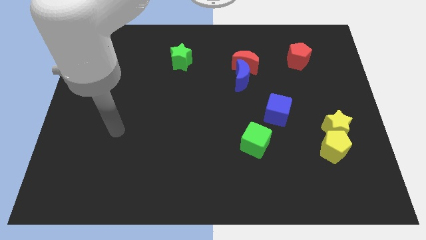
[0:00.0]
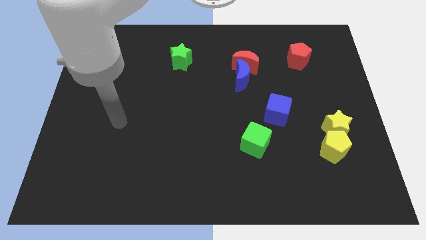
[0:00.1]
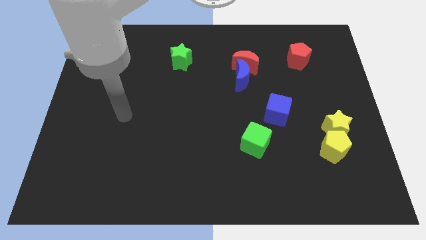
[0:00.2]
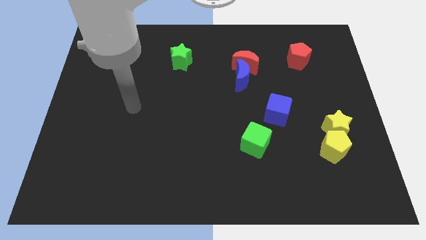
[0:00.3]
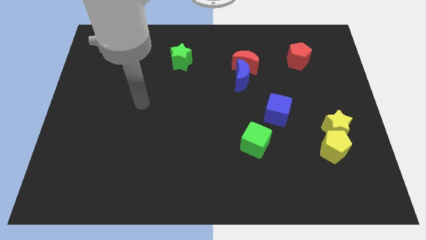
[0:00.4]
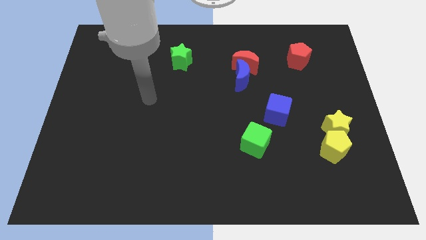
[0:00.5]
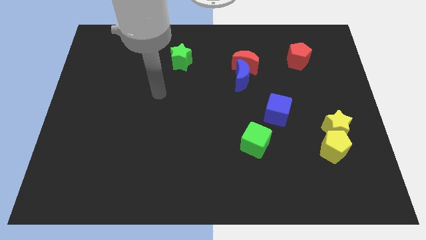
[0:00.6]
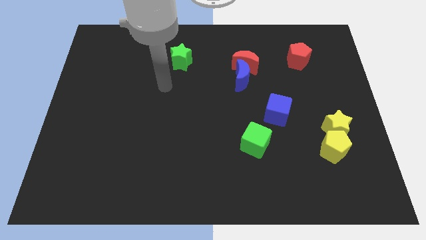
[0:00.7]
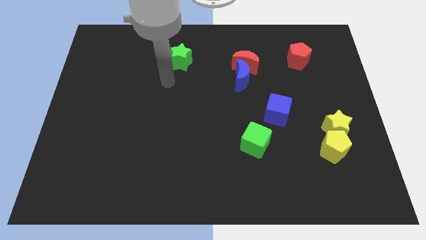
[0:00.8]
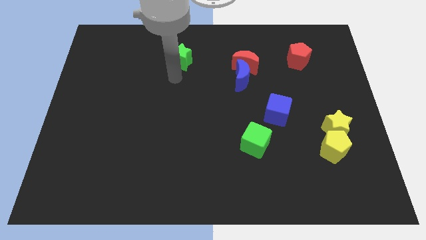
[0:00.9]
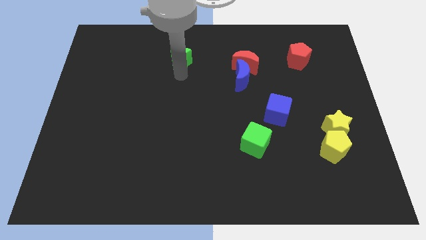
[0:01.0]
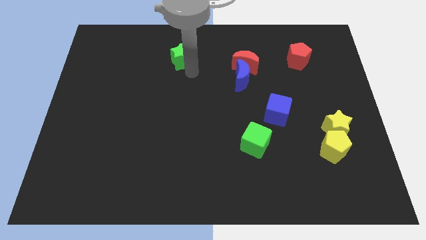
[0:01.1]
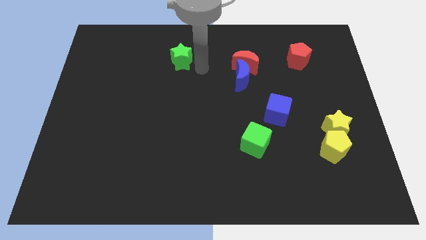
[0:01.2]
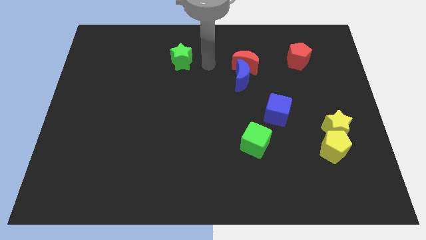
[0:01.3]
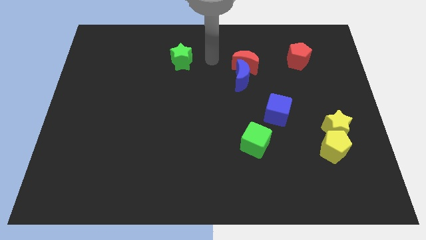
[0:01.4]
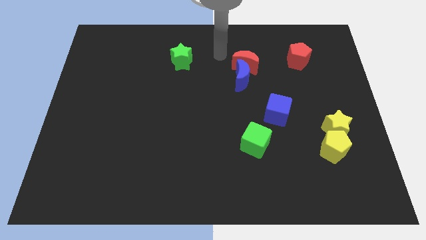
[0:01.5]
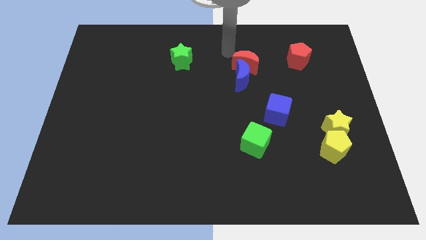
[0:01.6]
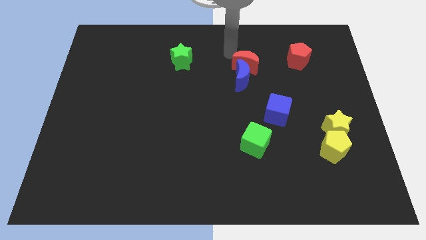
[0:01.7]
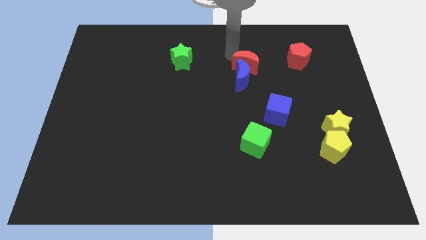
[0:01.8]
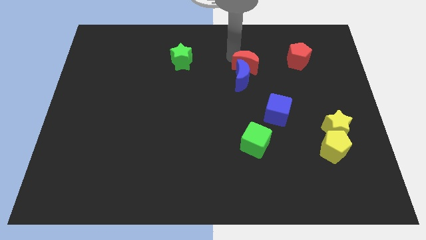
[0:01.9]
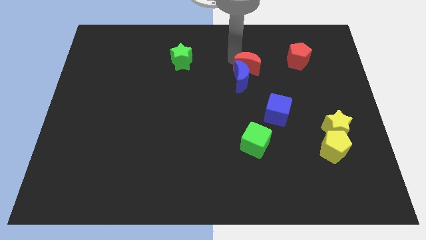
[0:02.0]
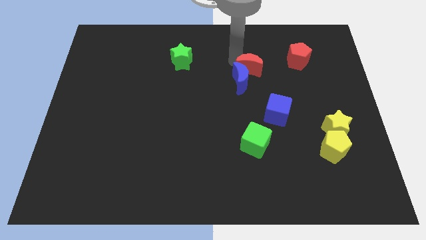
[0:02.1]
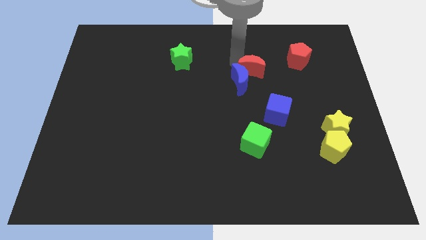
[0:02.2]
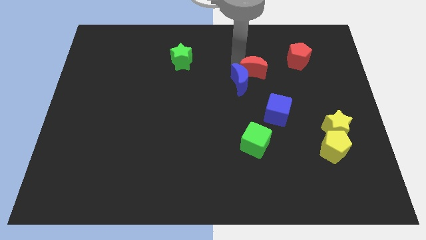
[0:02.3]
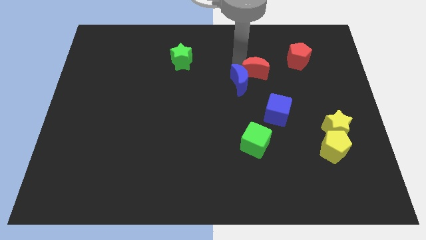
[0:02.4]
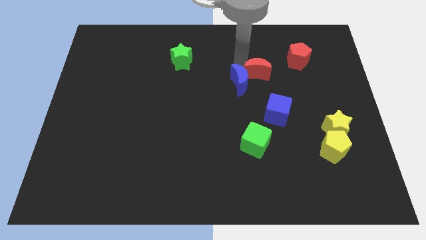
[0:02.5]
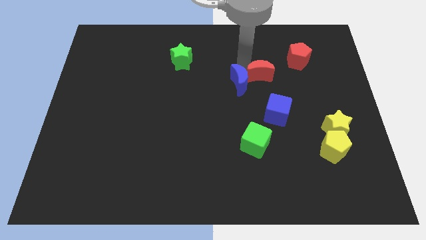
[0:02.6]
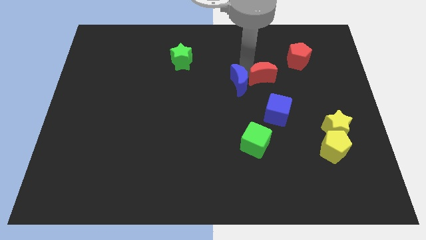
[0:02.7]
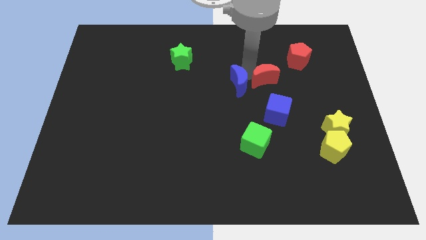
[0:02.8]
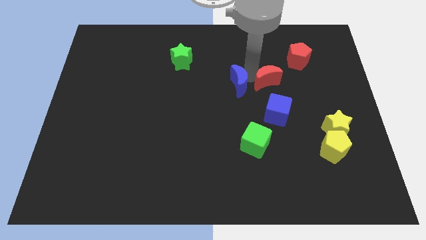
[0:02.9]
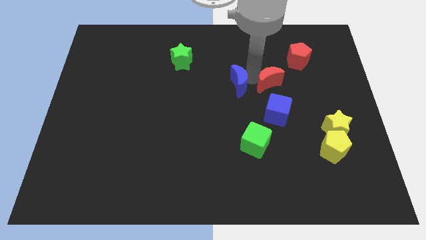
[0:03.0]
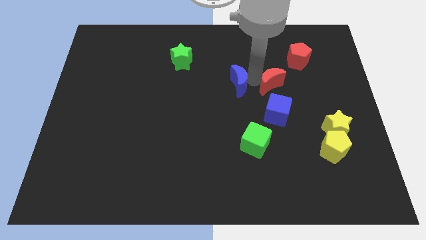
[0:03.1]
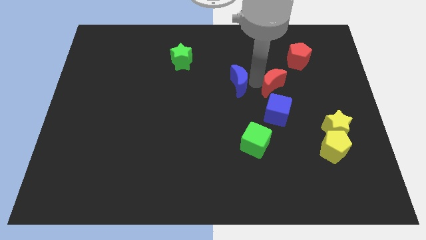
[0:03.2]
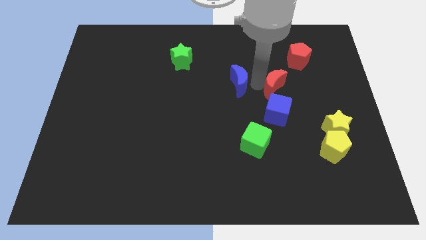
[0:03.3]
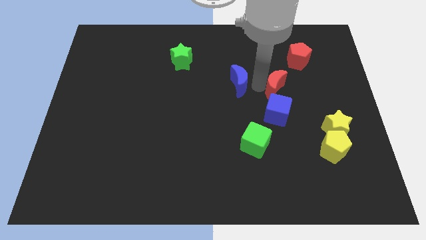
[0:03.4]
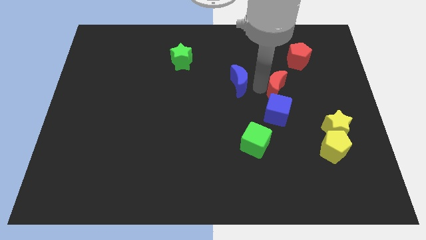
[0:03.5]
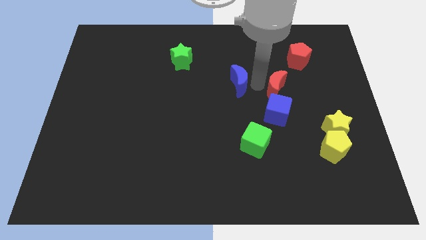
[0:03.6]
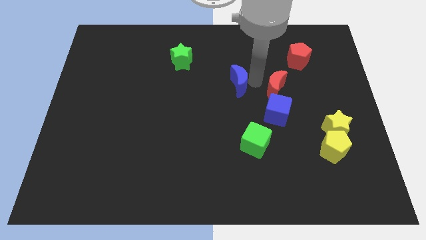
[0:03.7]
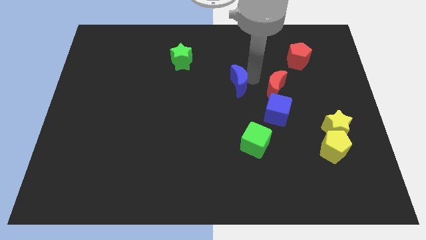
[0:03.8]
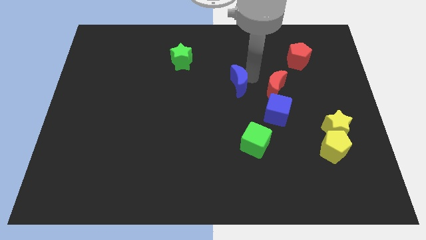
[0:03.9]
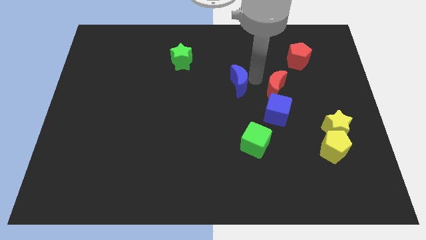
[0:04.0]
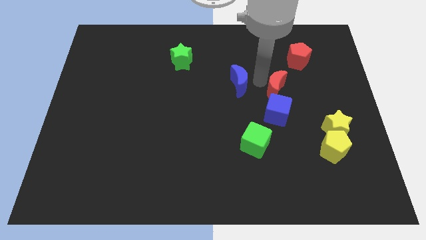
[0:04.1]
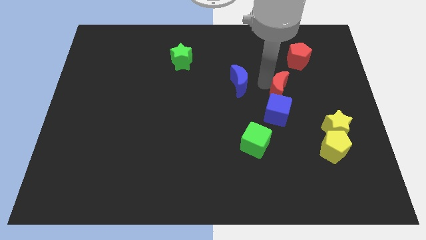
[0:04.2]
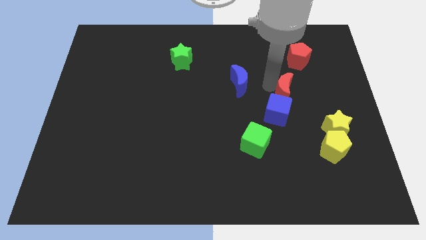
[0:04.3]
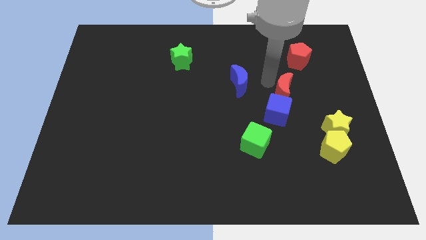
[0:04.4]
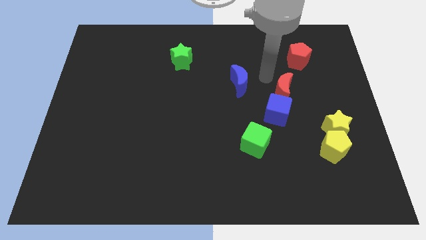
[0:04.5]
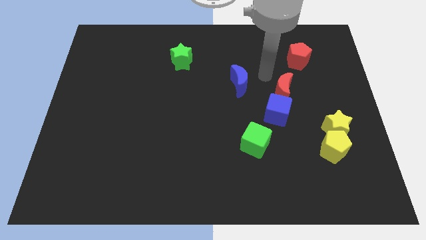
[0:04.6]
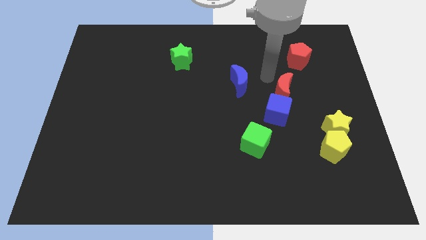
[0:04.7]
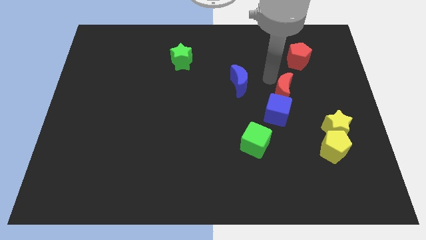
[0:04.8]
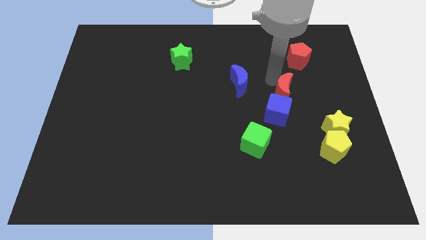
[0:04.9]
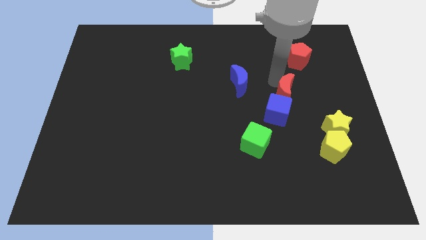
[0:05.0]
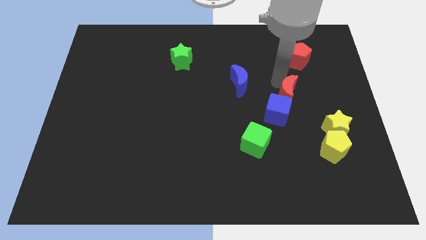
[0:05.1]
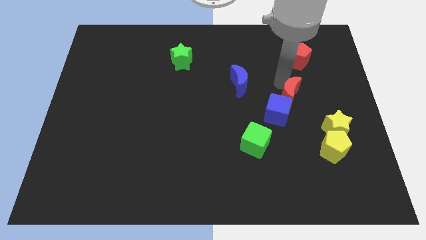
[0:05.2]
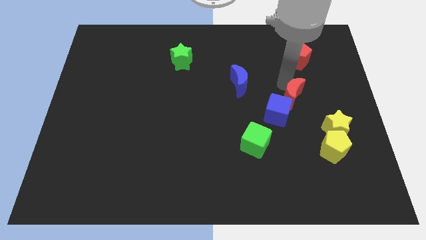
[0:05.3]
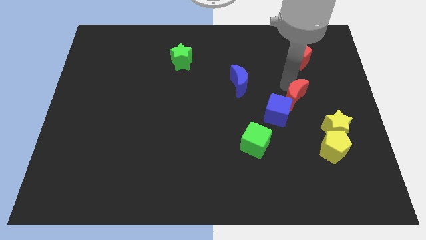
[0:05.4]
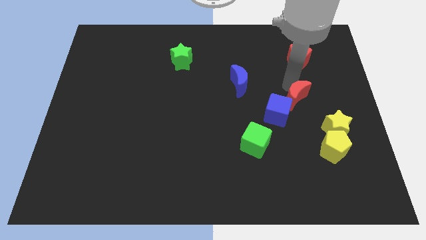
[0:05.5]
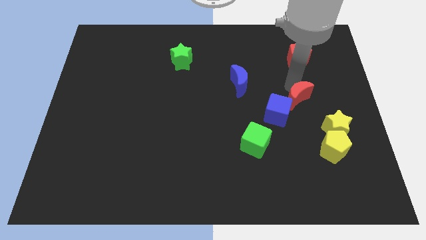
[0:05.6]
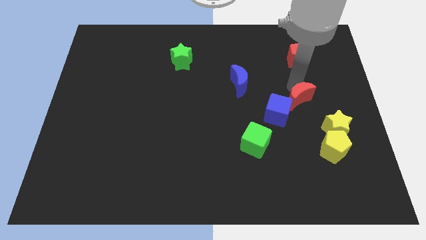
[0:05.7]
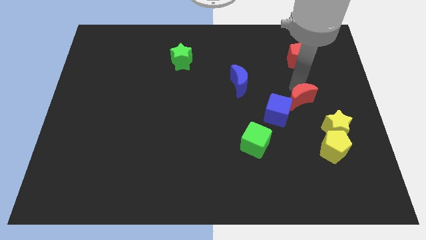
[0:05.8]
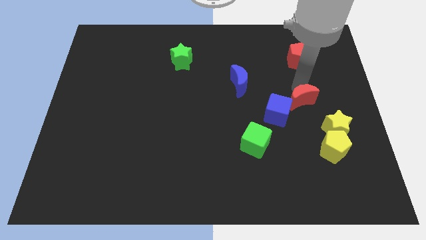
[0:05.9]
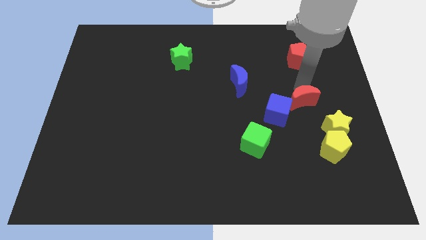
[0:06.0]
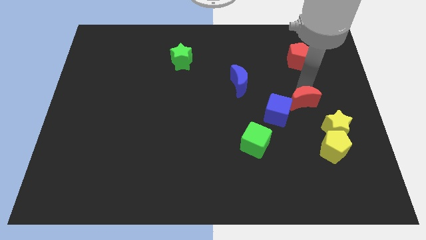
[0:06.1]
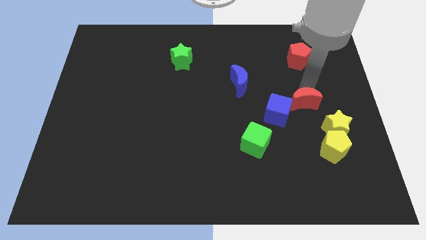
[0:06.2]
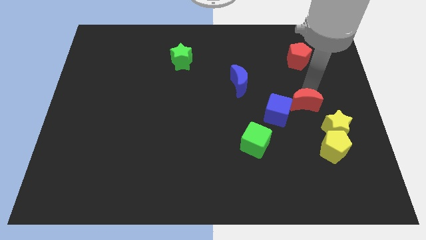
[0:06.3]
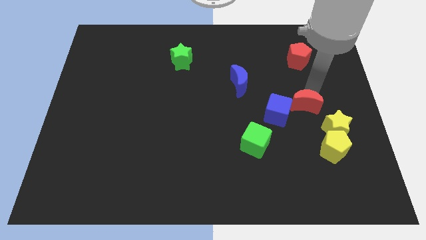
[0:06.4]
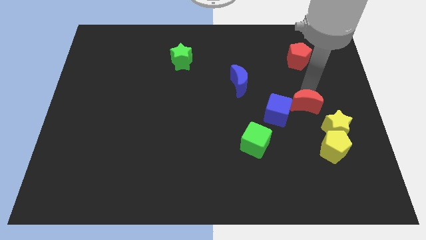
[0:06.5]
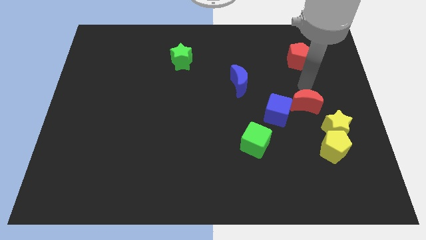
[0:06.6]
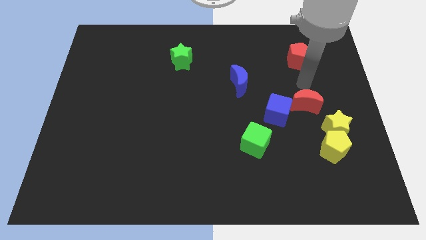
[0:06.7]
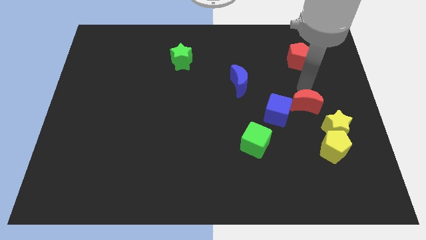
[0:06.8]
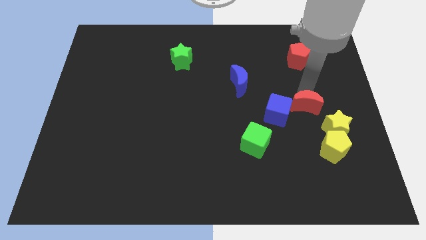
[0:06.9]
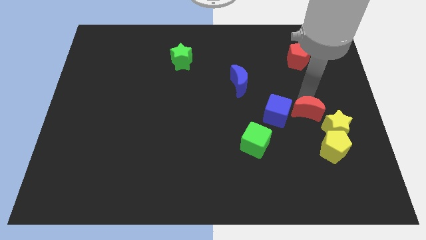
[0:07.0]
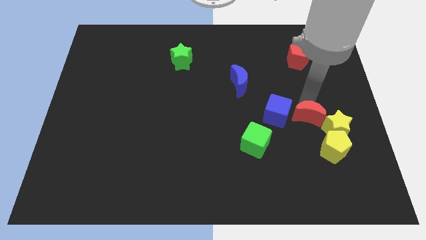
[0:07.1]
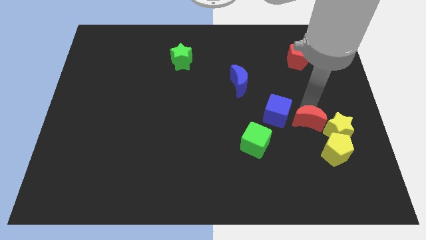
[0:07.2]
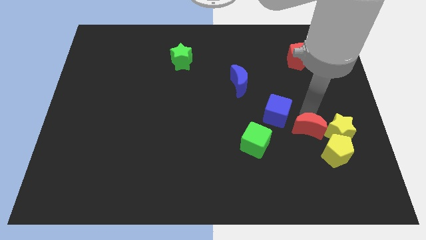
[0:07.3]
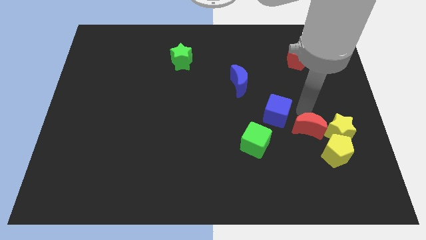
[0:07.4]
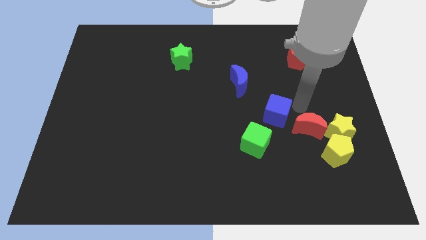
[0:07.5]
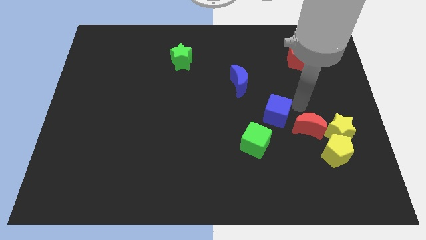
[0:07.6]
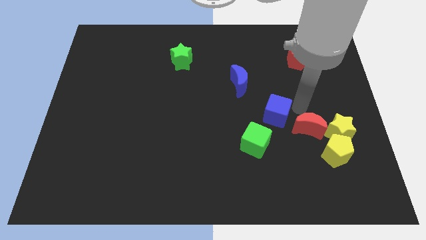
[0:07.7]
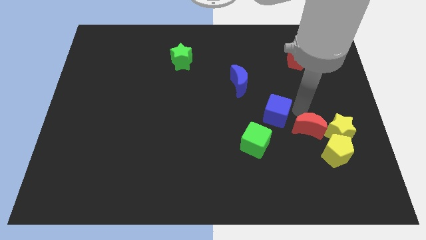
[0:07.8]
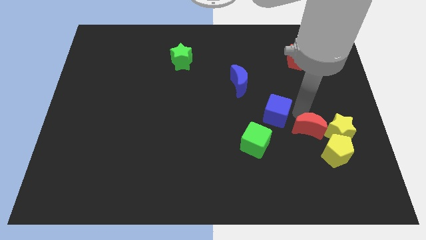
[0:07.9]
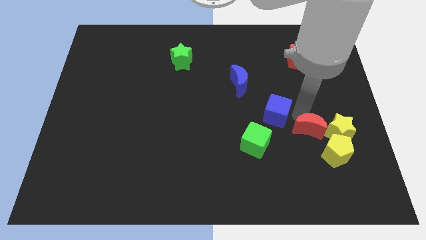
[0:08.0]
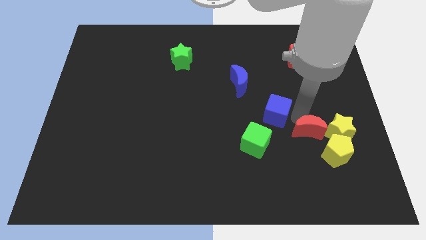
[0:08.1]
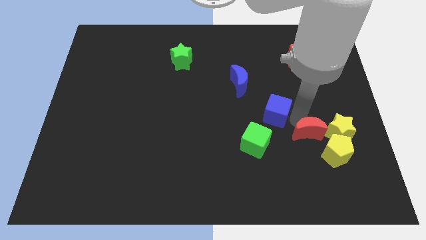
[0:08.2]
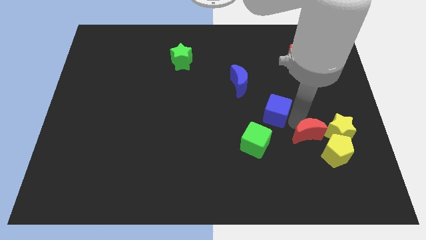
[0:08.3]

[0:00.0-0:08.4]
slide the red moon to the bottom left of the yellow star
